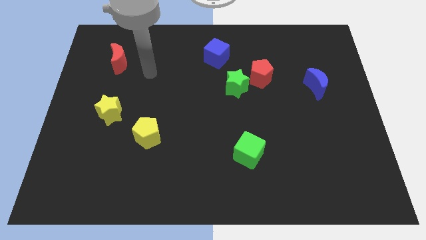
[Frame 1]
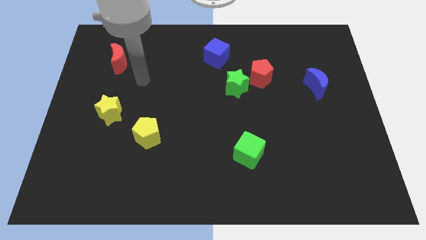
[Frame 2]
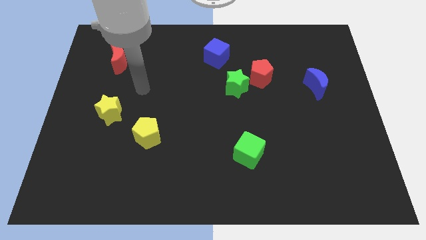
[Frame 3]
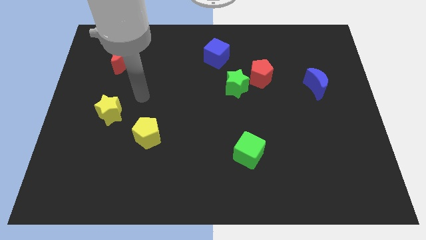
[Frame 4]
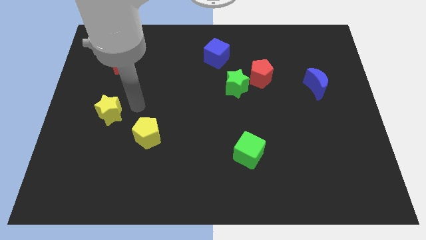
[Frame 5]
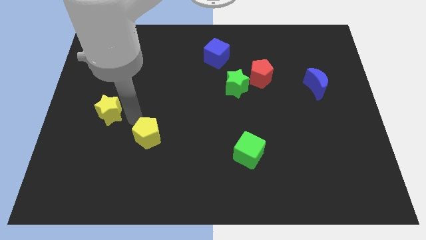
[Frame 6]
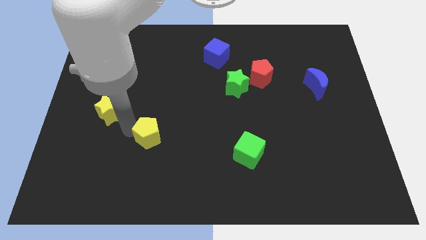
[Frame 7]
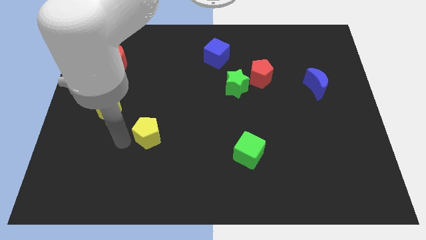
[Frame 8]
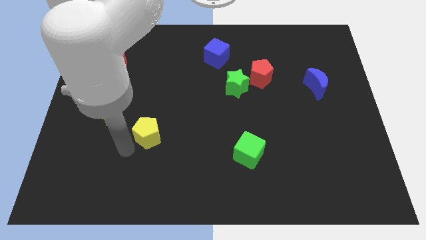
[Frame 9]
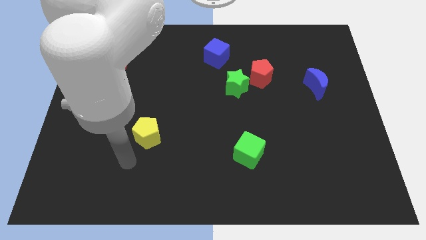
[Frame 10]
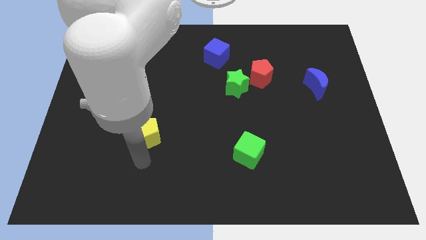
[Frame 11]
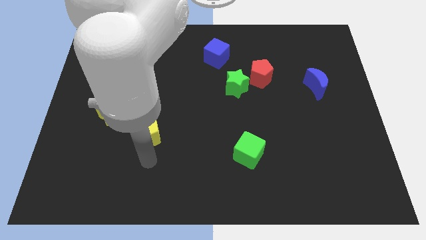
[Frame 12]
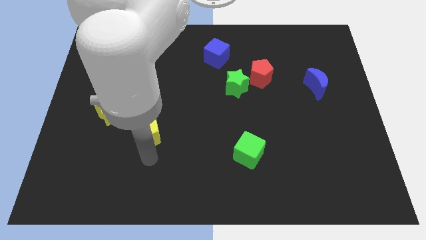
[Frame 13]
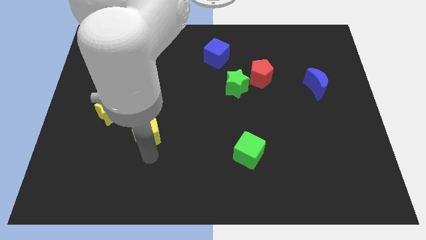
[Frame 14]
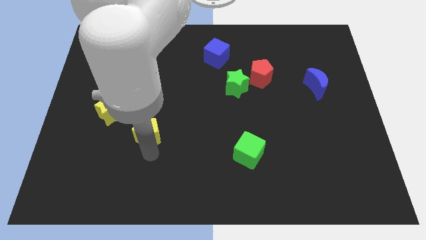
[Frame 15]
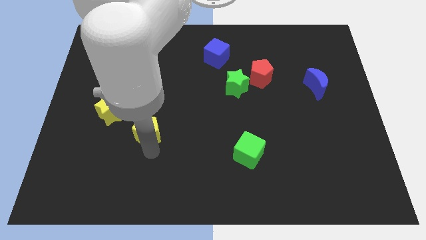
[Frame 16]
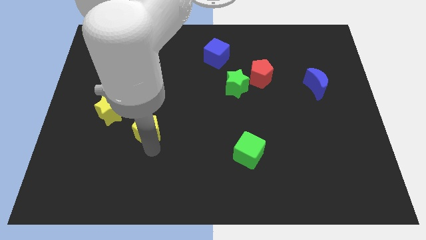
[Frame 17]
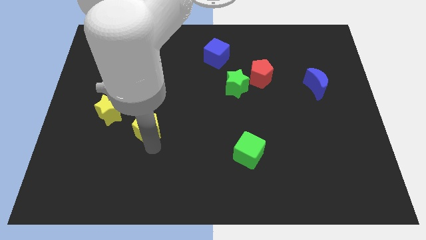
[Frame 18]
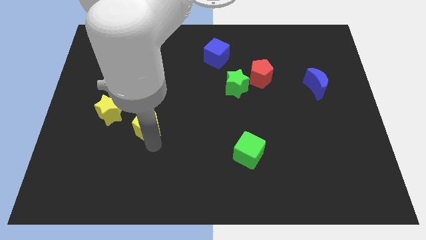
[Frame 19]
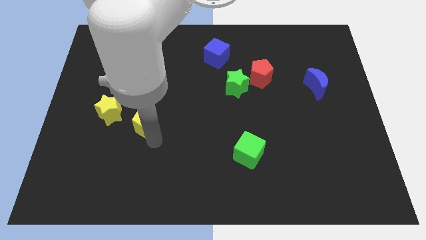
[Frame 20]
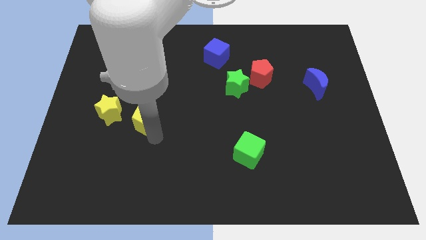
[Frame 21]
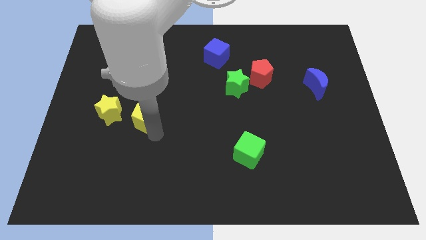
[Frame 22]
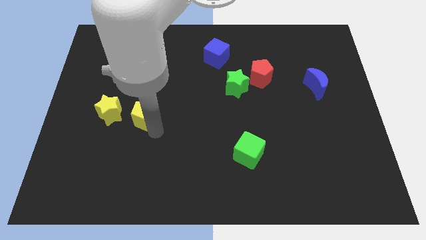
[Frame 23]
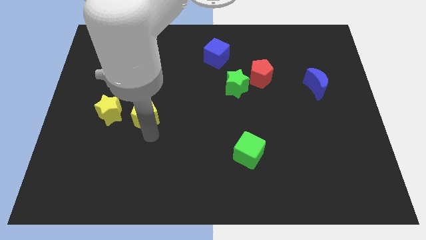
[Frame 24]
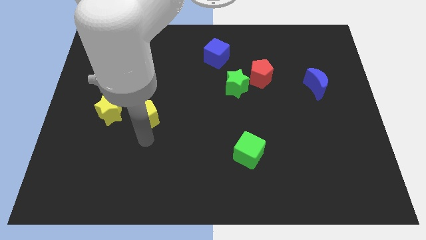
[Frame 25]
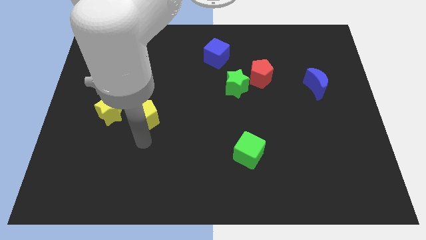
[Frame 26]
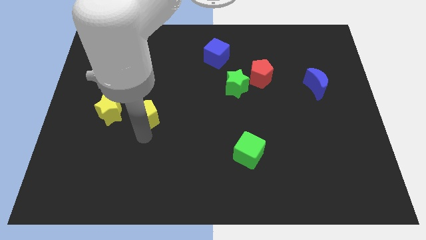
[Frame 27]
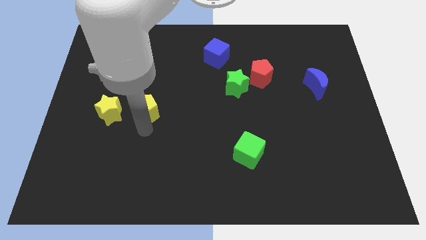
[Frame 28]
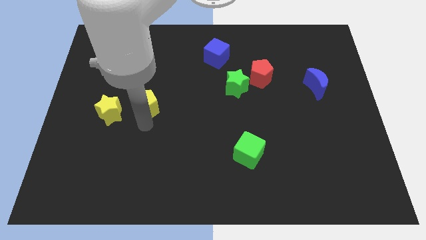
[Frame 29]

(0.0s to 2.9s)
slightly slide the yellow pentagon upwards

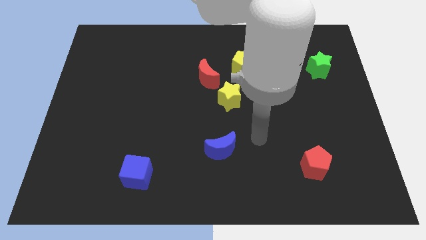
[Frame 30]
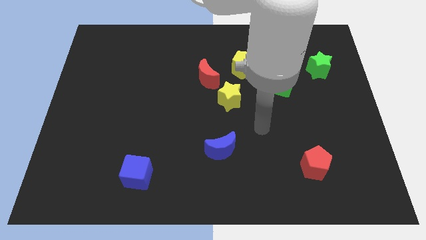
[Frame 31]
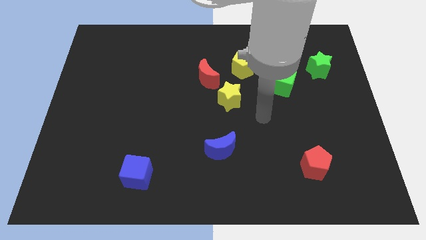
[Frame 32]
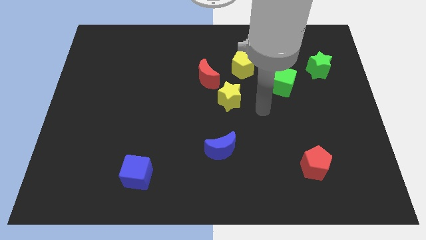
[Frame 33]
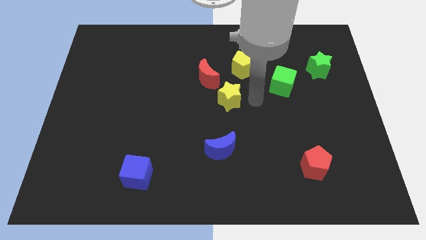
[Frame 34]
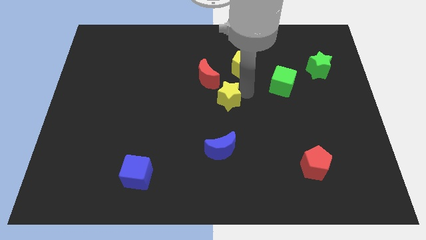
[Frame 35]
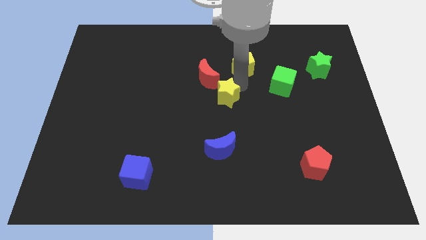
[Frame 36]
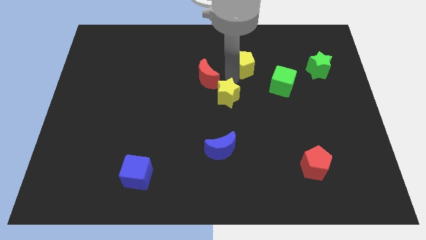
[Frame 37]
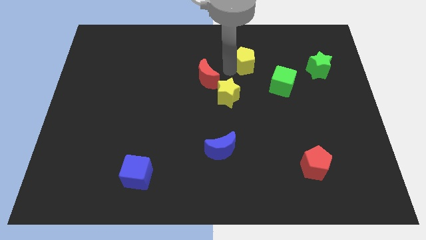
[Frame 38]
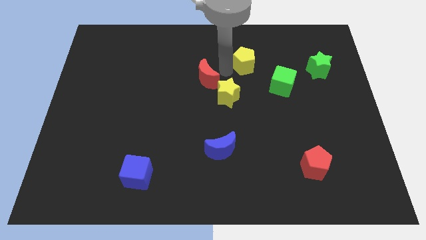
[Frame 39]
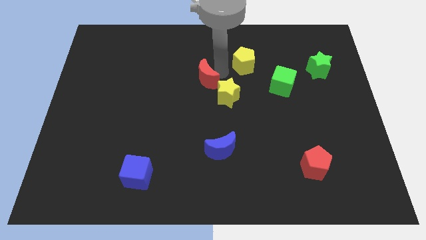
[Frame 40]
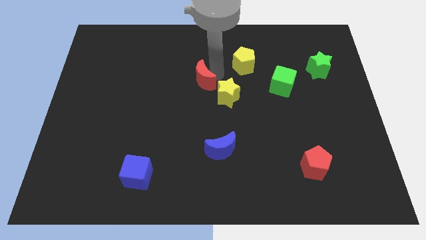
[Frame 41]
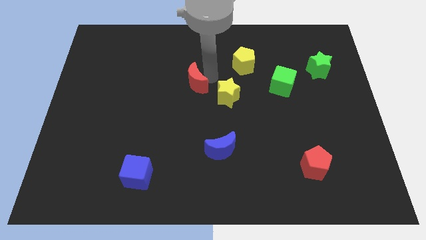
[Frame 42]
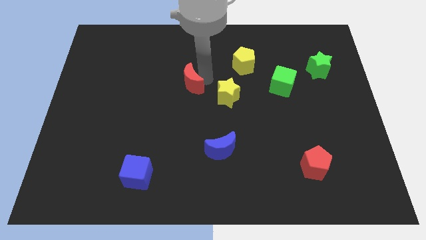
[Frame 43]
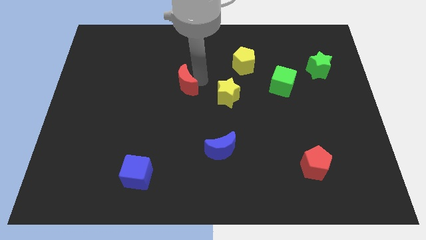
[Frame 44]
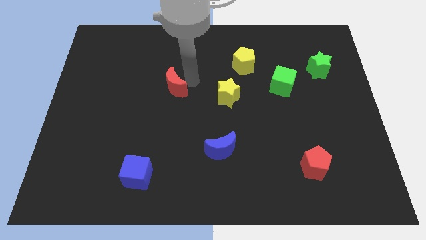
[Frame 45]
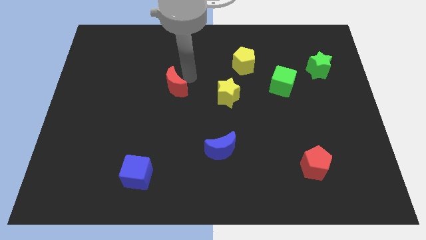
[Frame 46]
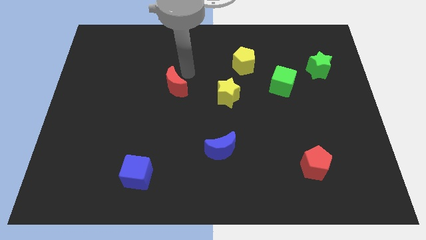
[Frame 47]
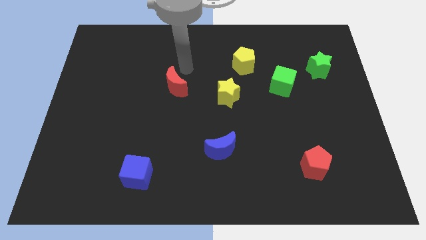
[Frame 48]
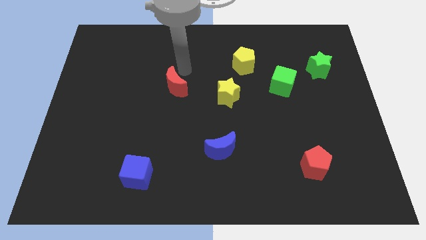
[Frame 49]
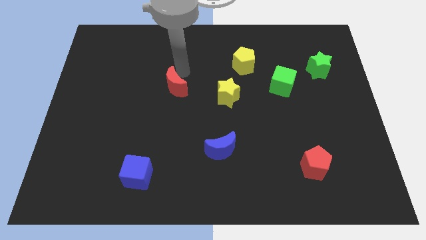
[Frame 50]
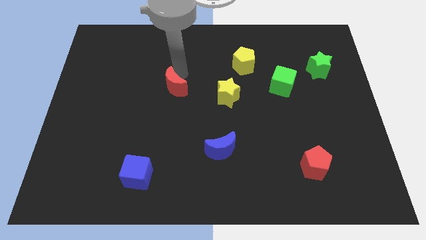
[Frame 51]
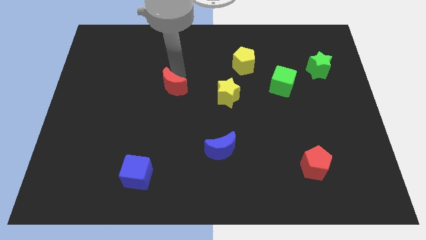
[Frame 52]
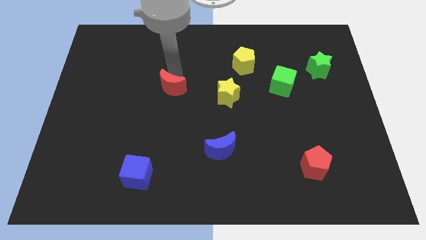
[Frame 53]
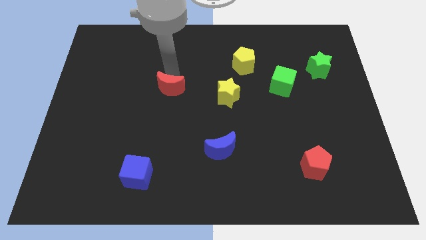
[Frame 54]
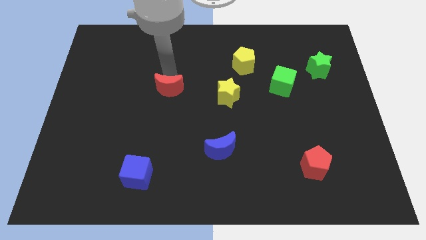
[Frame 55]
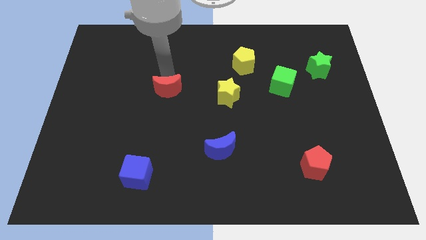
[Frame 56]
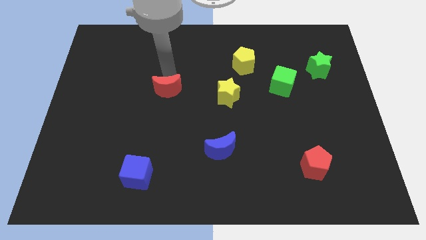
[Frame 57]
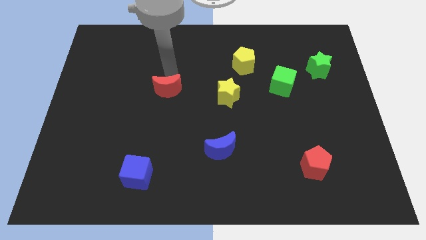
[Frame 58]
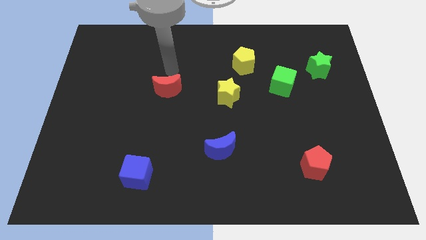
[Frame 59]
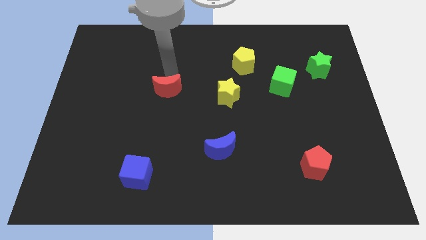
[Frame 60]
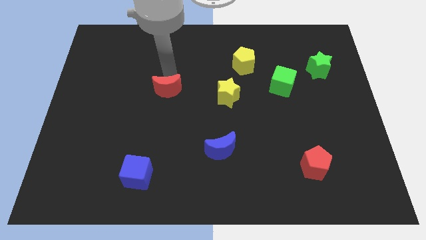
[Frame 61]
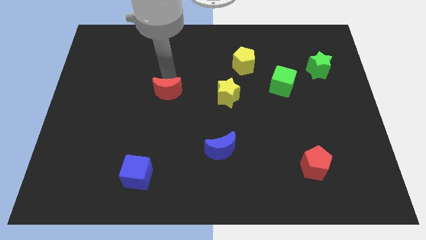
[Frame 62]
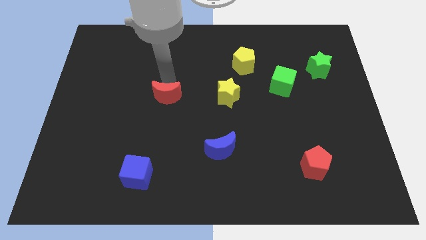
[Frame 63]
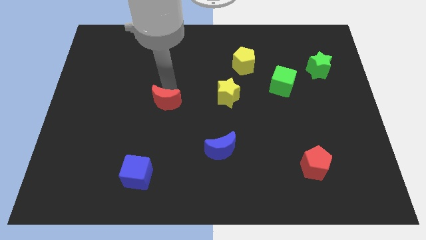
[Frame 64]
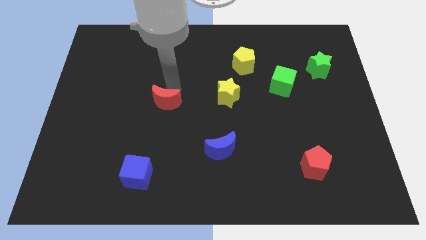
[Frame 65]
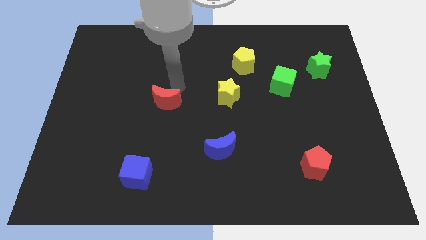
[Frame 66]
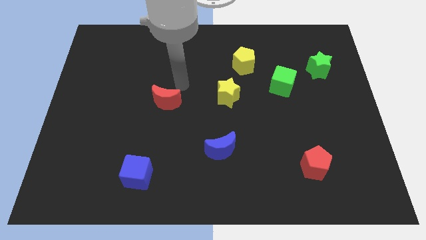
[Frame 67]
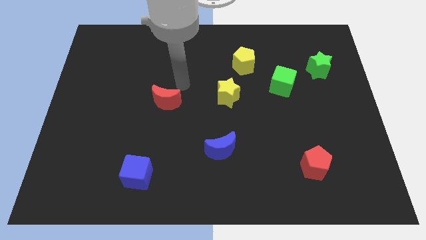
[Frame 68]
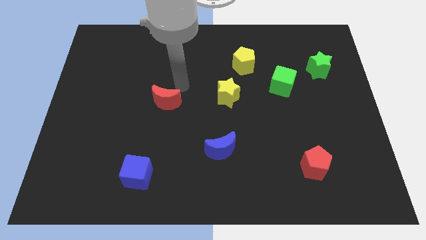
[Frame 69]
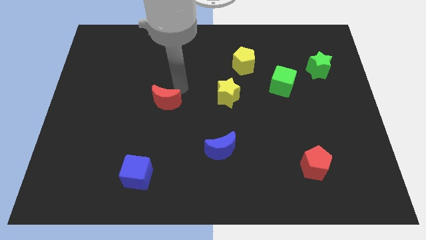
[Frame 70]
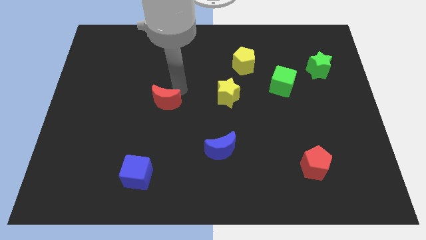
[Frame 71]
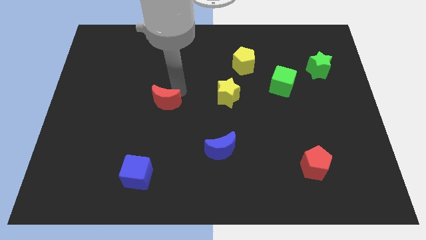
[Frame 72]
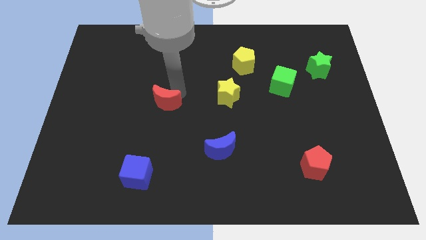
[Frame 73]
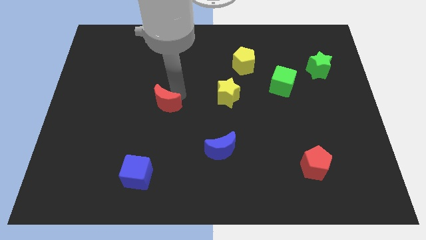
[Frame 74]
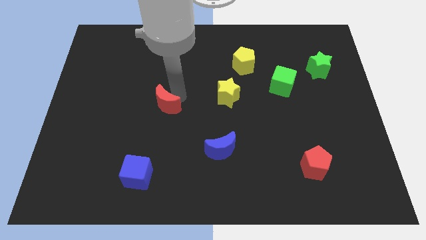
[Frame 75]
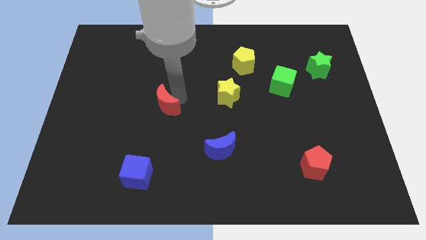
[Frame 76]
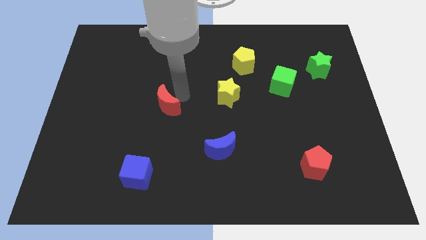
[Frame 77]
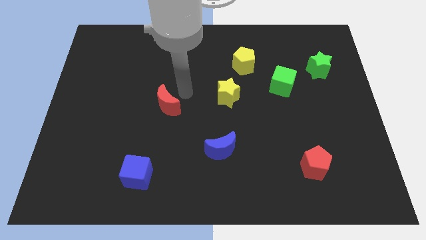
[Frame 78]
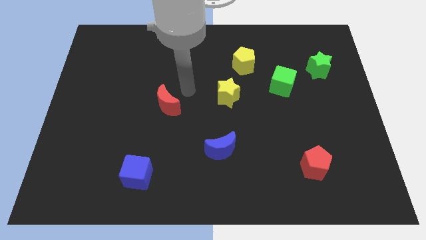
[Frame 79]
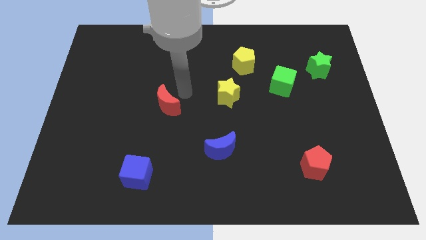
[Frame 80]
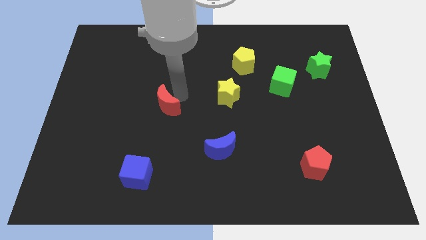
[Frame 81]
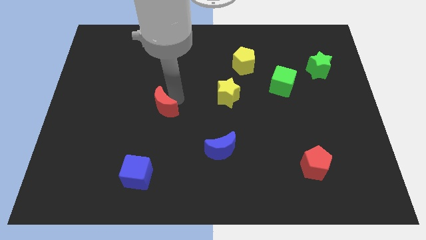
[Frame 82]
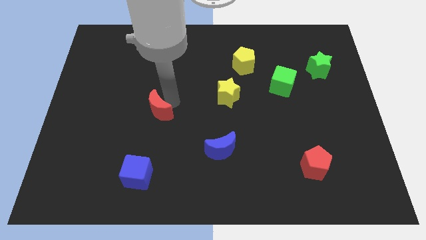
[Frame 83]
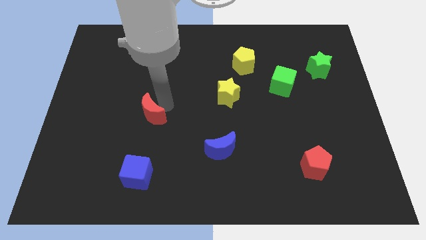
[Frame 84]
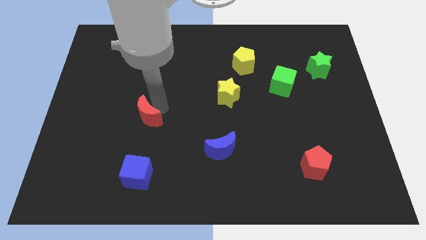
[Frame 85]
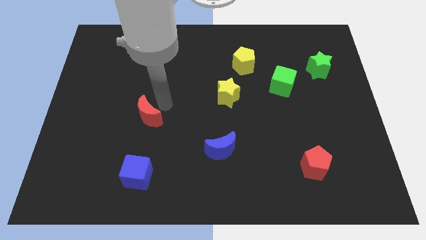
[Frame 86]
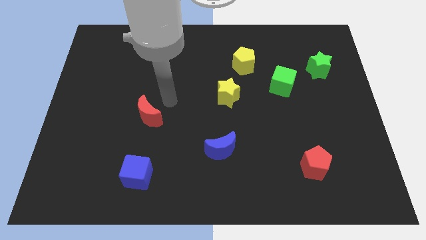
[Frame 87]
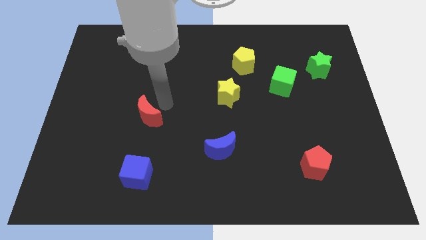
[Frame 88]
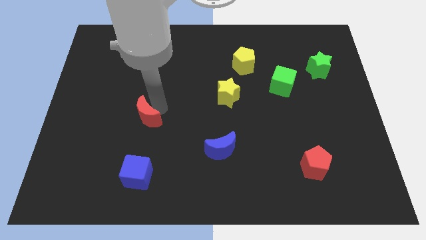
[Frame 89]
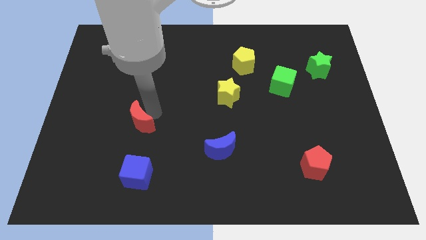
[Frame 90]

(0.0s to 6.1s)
slide the red moon downwards and to the left diagonally
